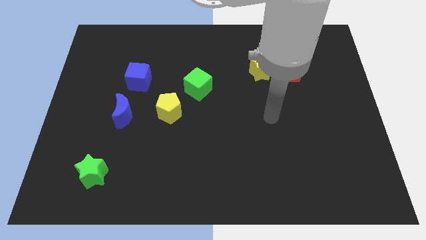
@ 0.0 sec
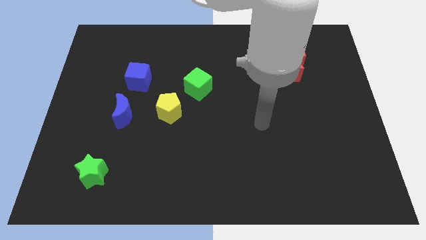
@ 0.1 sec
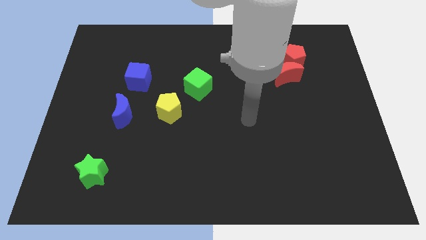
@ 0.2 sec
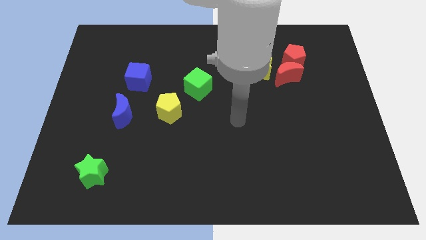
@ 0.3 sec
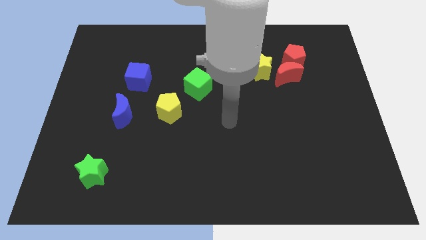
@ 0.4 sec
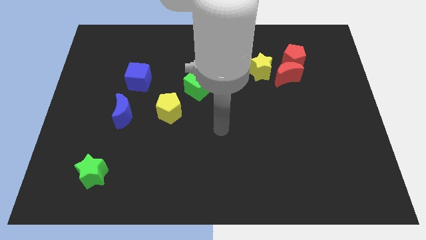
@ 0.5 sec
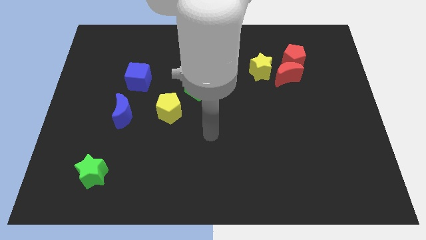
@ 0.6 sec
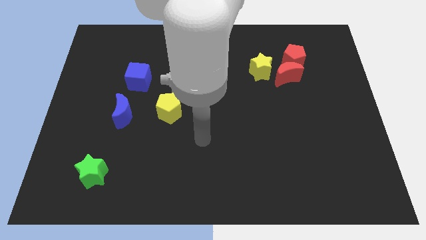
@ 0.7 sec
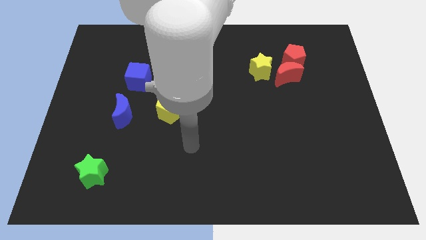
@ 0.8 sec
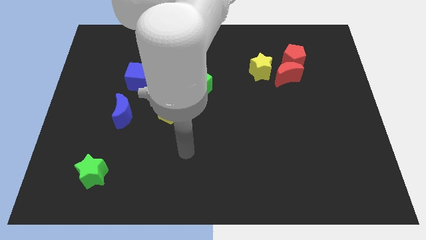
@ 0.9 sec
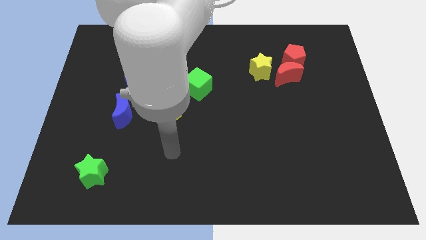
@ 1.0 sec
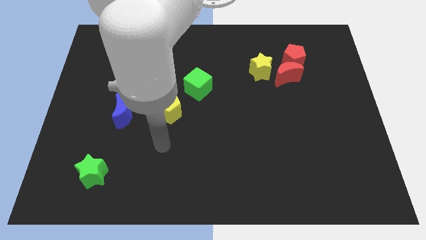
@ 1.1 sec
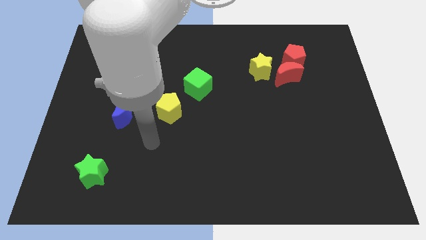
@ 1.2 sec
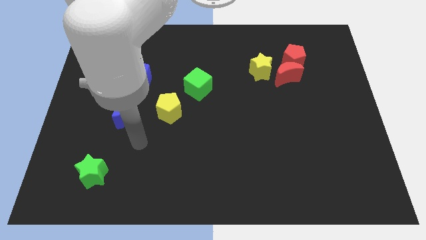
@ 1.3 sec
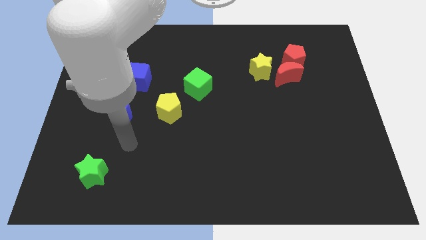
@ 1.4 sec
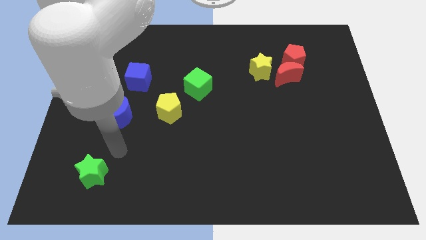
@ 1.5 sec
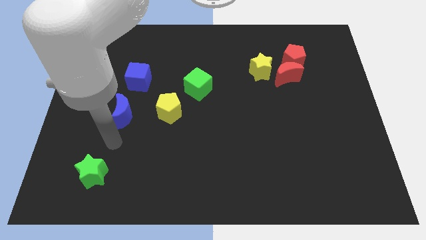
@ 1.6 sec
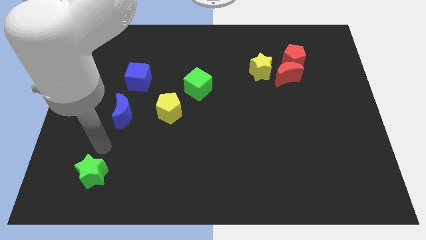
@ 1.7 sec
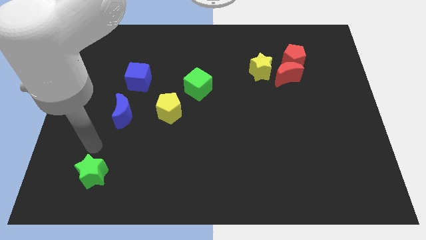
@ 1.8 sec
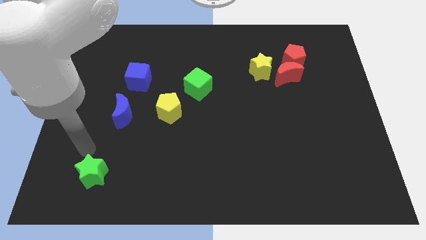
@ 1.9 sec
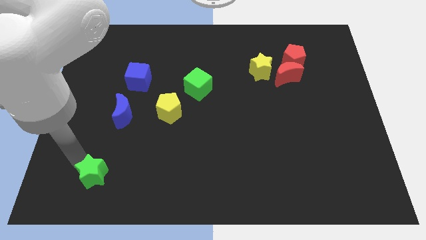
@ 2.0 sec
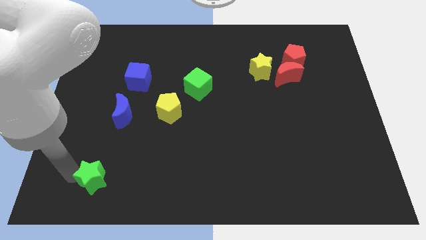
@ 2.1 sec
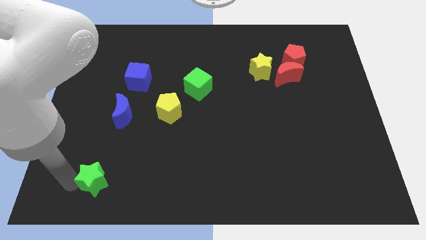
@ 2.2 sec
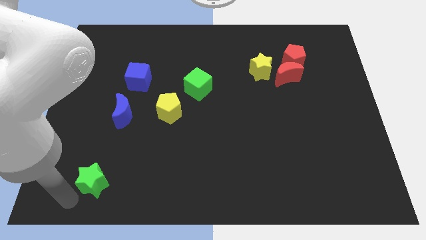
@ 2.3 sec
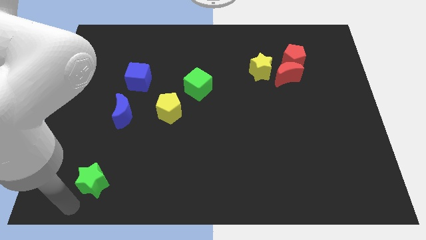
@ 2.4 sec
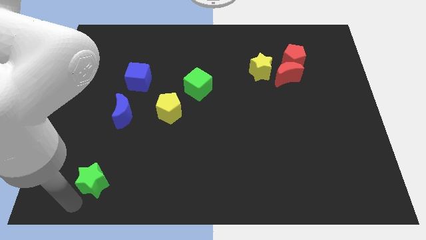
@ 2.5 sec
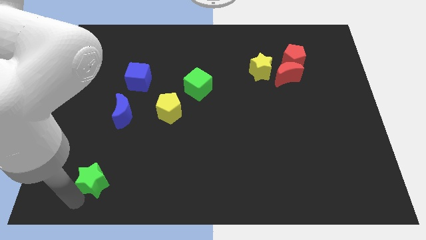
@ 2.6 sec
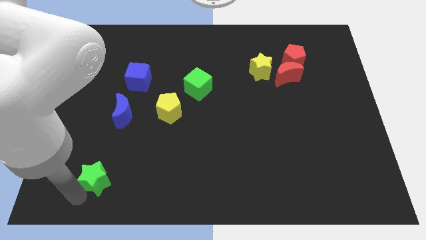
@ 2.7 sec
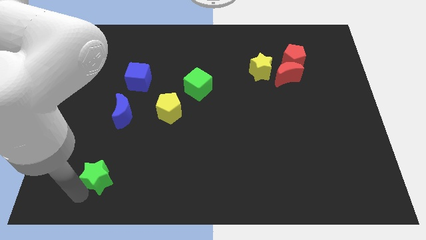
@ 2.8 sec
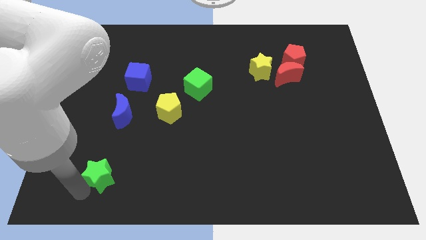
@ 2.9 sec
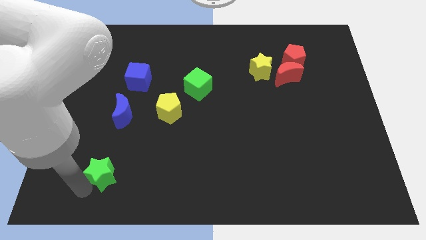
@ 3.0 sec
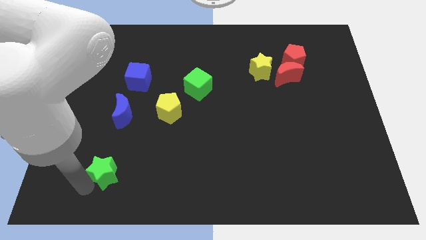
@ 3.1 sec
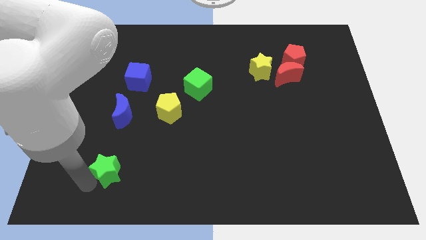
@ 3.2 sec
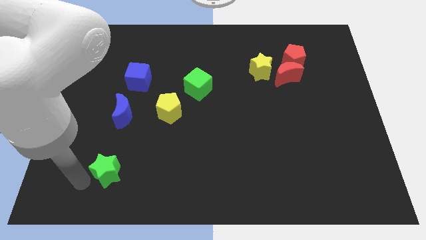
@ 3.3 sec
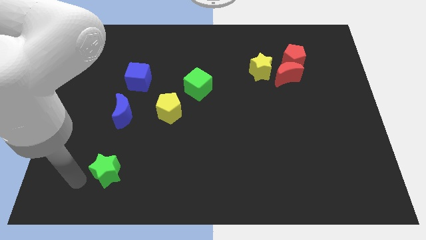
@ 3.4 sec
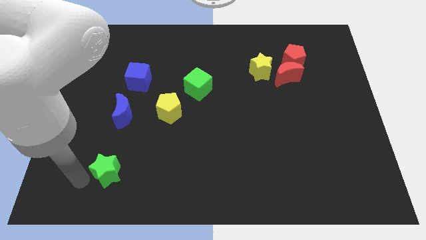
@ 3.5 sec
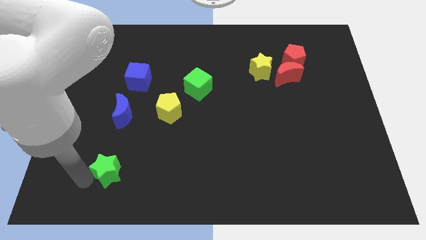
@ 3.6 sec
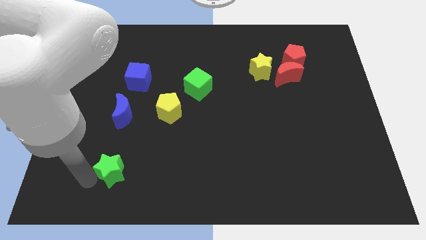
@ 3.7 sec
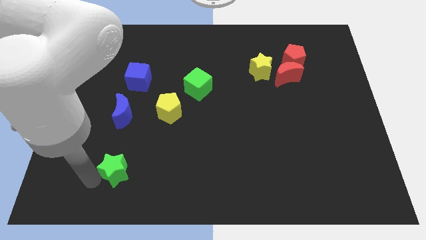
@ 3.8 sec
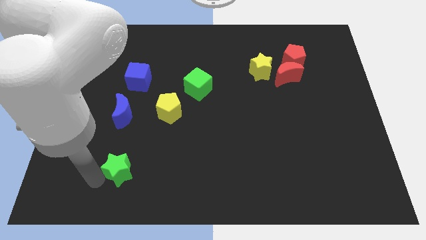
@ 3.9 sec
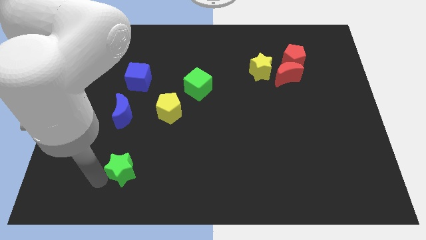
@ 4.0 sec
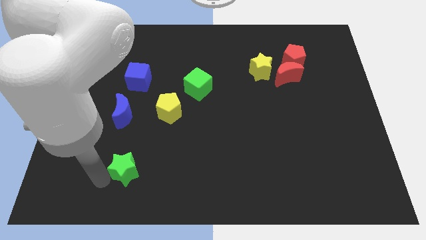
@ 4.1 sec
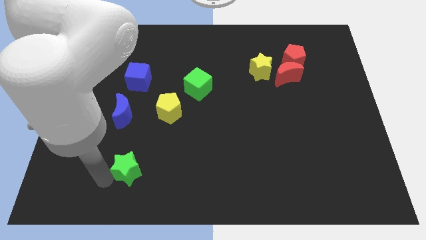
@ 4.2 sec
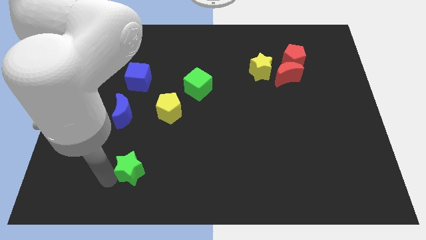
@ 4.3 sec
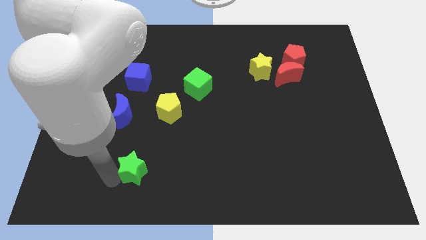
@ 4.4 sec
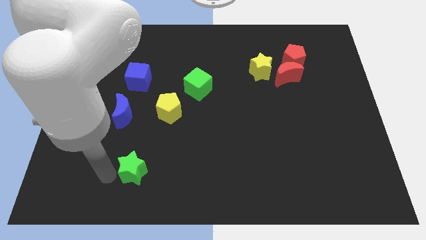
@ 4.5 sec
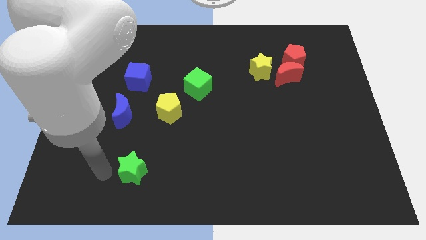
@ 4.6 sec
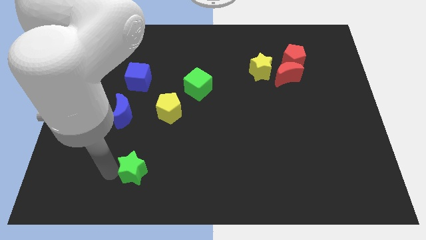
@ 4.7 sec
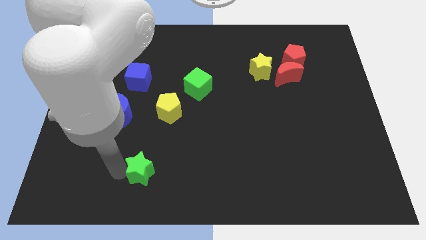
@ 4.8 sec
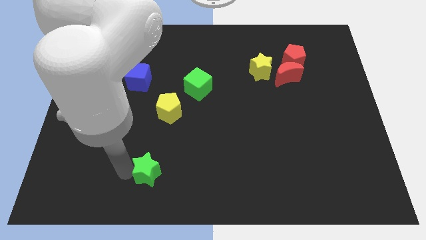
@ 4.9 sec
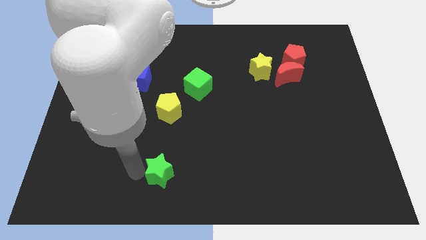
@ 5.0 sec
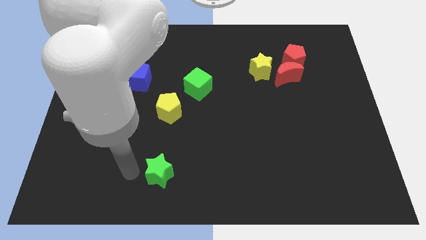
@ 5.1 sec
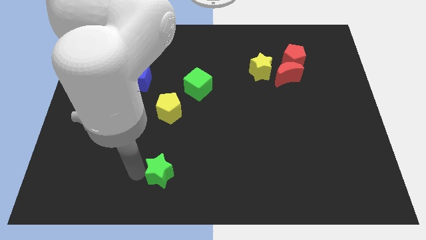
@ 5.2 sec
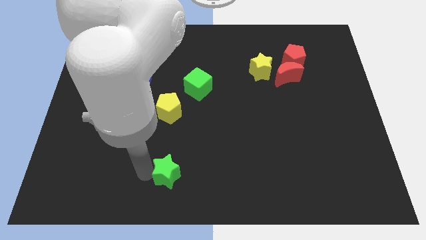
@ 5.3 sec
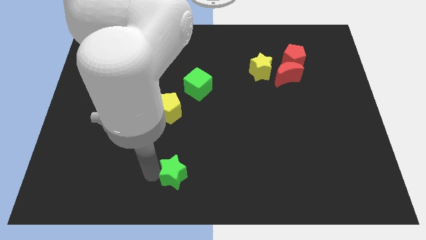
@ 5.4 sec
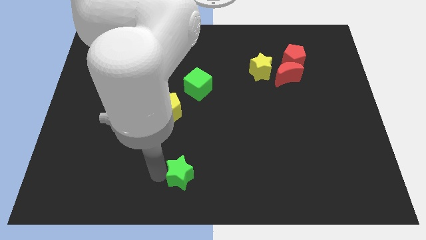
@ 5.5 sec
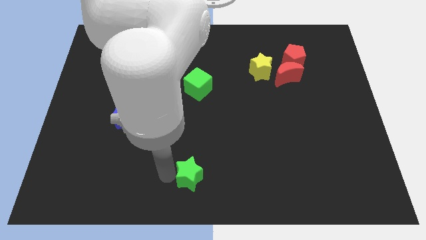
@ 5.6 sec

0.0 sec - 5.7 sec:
slide the green star to the right

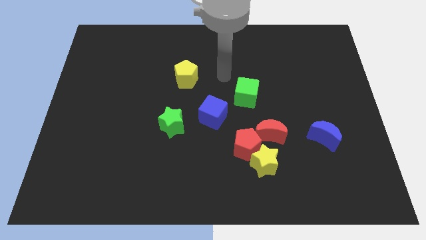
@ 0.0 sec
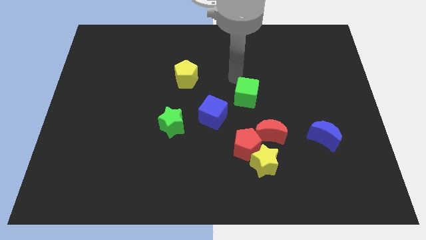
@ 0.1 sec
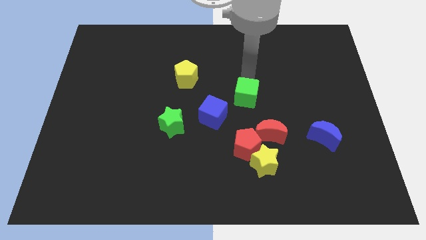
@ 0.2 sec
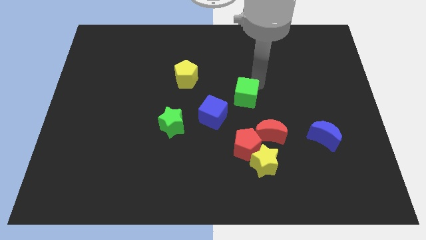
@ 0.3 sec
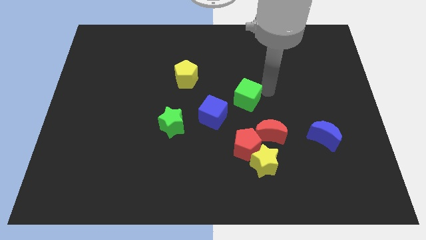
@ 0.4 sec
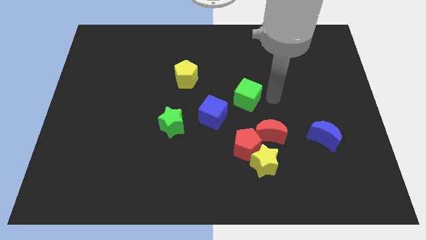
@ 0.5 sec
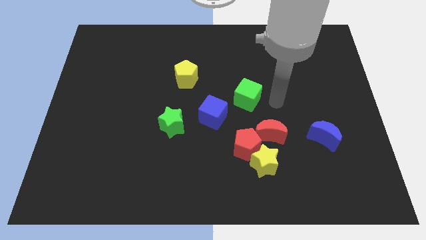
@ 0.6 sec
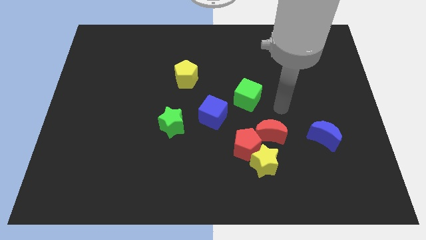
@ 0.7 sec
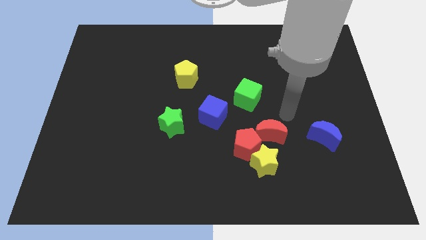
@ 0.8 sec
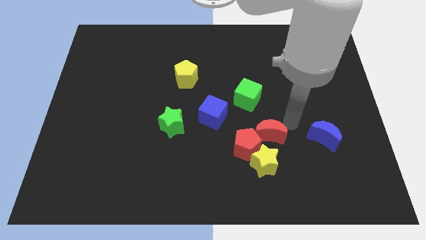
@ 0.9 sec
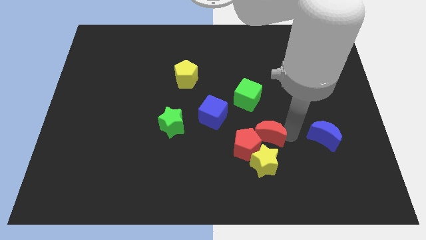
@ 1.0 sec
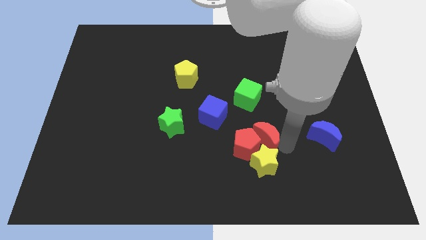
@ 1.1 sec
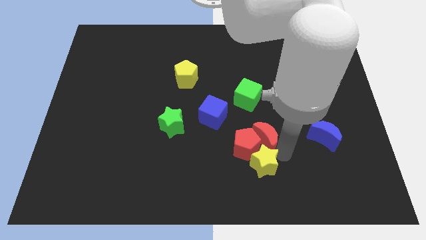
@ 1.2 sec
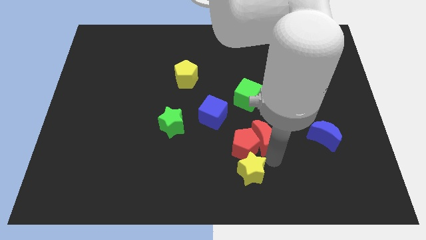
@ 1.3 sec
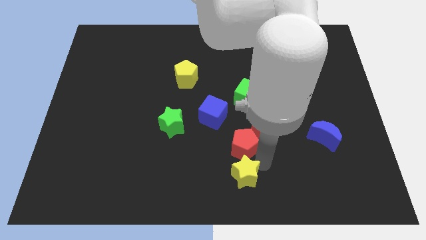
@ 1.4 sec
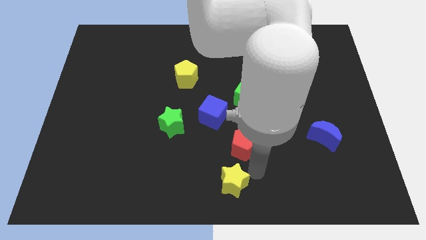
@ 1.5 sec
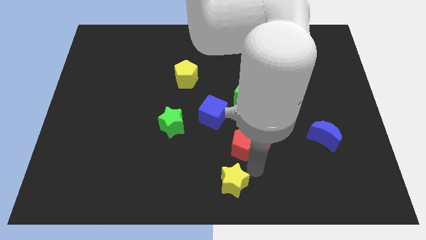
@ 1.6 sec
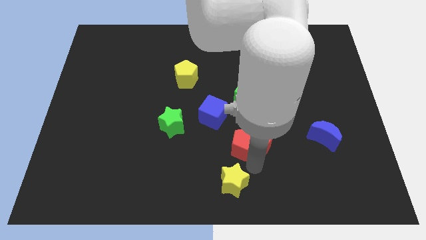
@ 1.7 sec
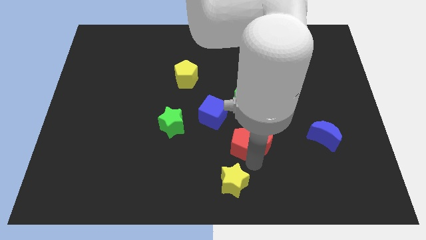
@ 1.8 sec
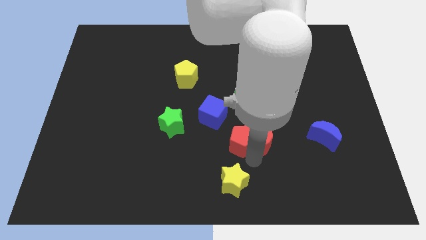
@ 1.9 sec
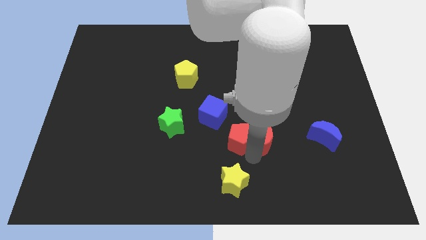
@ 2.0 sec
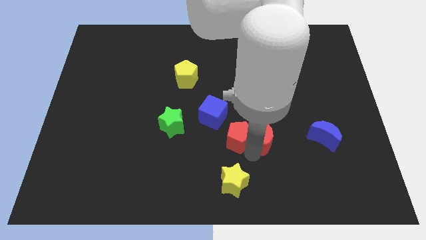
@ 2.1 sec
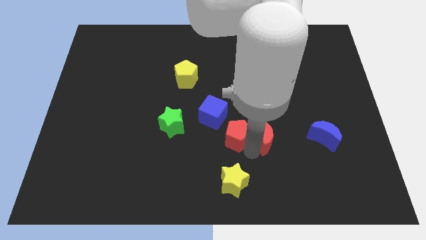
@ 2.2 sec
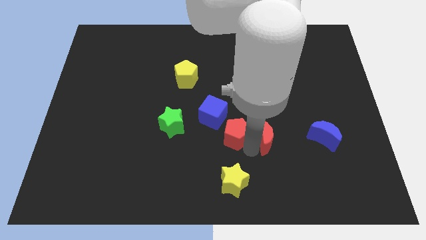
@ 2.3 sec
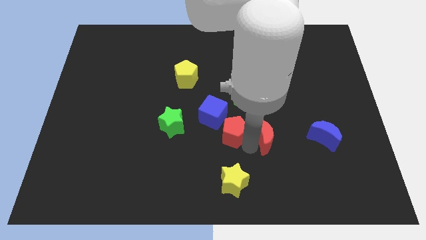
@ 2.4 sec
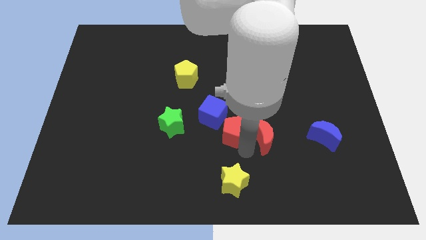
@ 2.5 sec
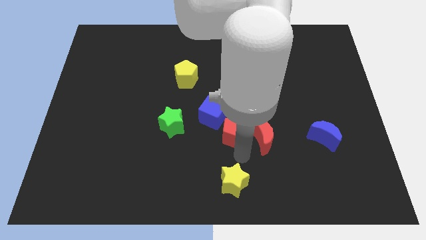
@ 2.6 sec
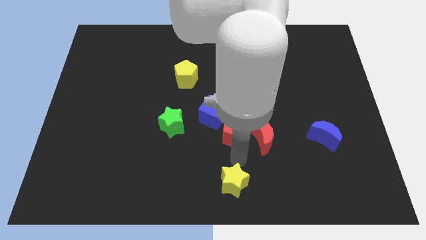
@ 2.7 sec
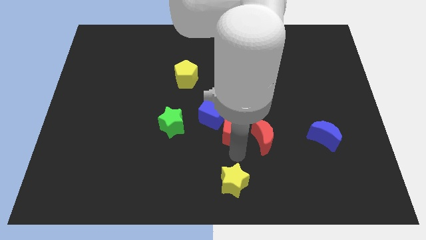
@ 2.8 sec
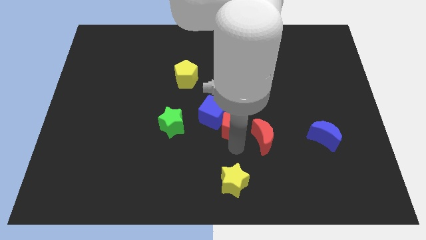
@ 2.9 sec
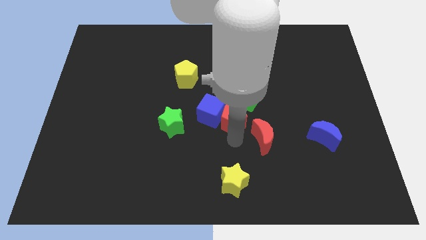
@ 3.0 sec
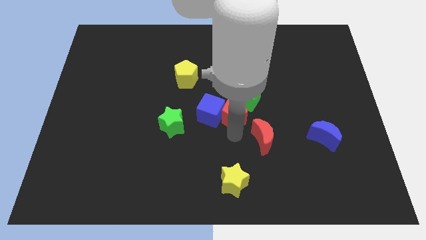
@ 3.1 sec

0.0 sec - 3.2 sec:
push the red pentagon slightly upwards
